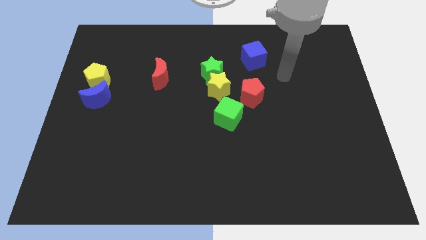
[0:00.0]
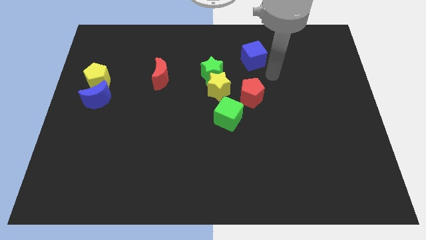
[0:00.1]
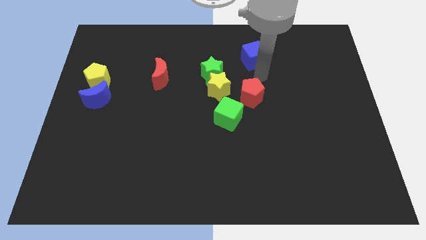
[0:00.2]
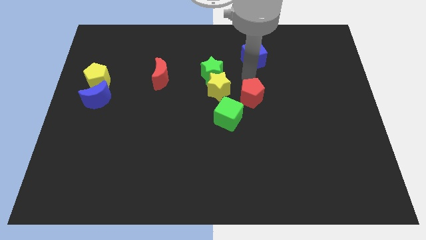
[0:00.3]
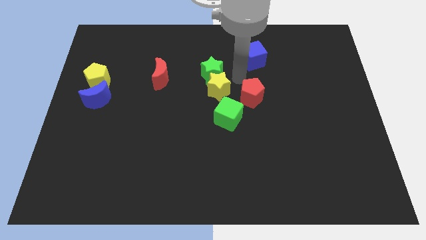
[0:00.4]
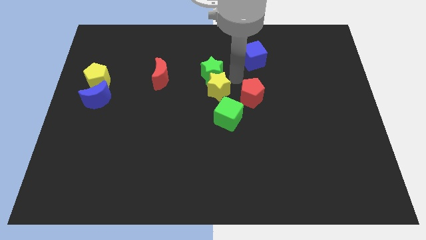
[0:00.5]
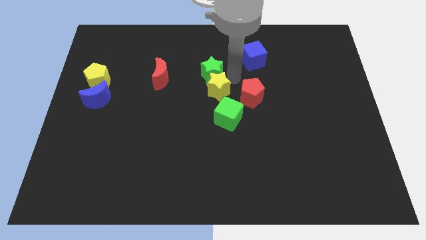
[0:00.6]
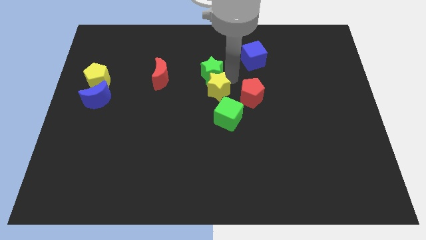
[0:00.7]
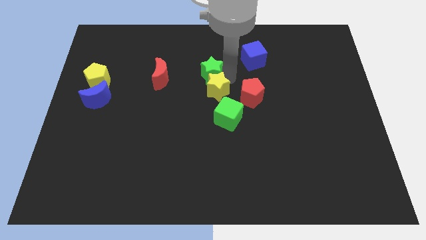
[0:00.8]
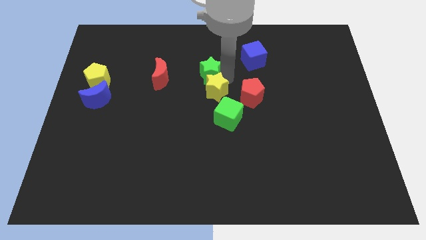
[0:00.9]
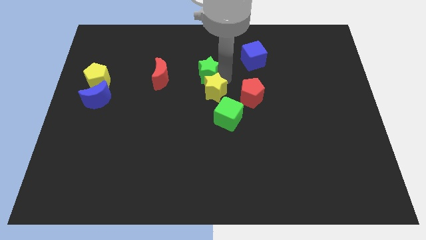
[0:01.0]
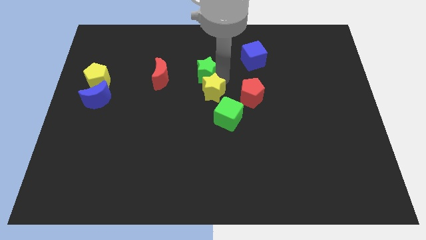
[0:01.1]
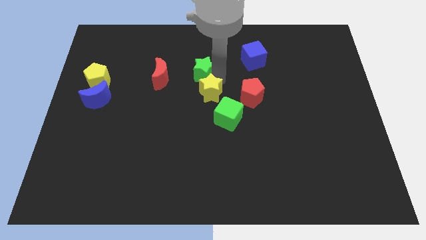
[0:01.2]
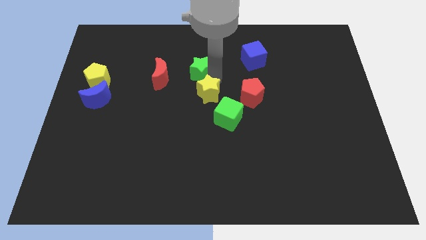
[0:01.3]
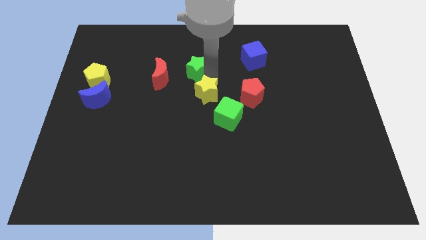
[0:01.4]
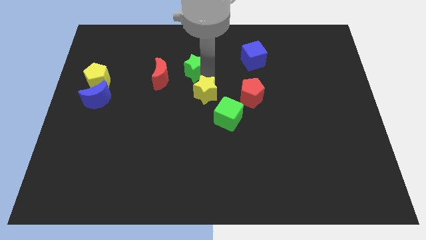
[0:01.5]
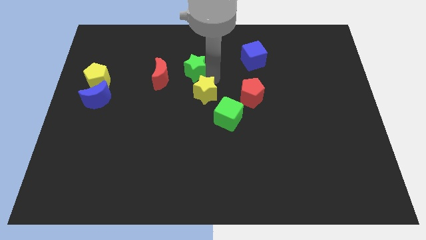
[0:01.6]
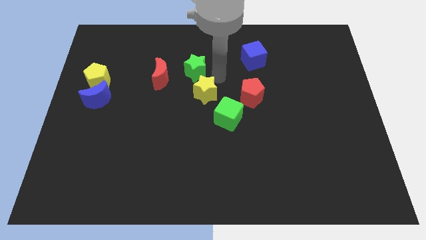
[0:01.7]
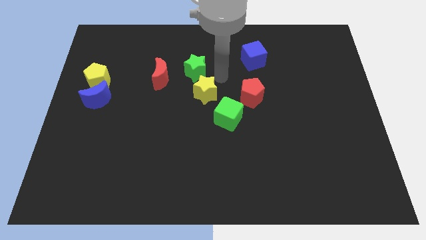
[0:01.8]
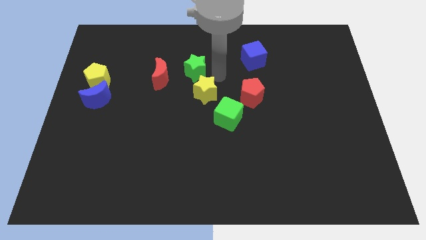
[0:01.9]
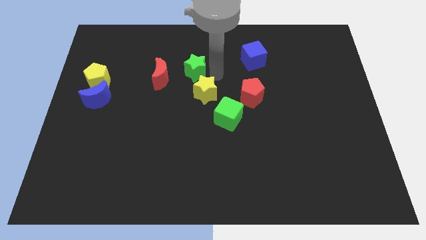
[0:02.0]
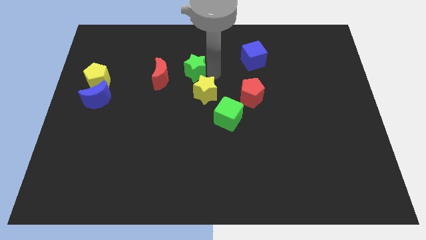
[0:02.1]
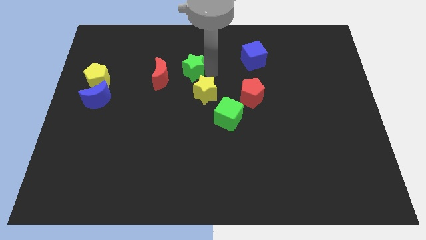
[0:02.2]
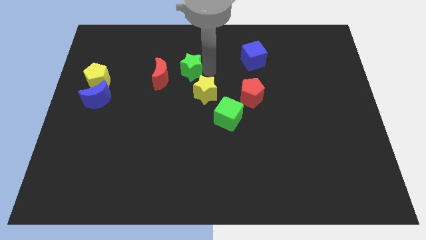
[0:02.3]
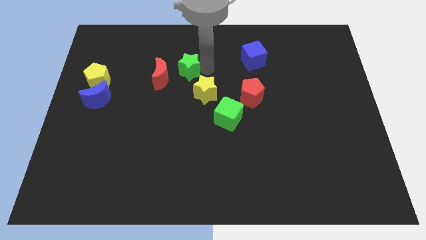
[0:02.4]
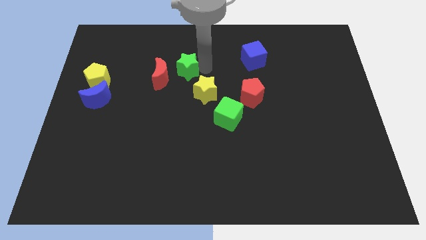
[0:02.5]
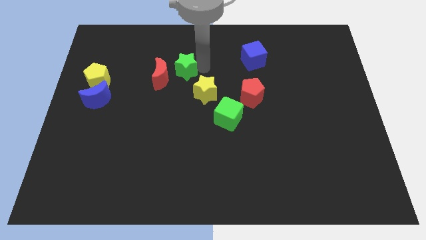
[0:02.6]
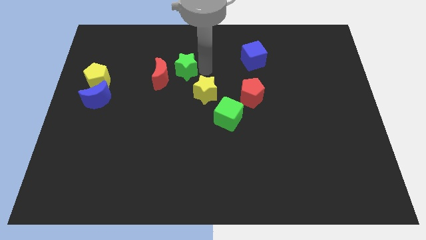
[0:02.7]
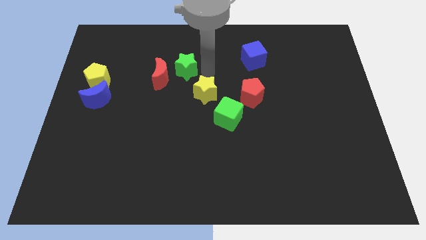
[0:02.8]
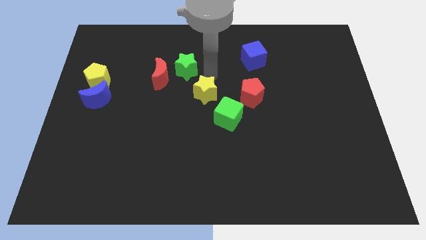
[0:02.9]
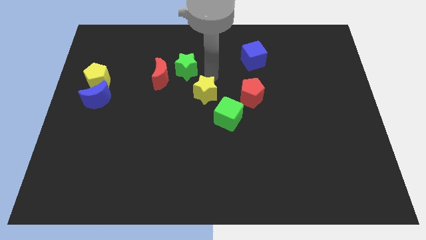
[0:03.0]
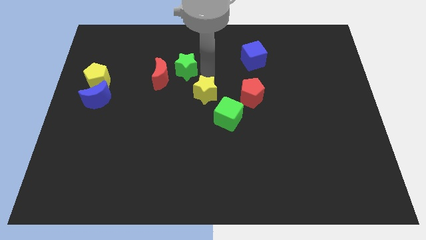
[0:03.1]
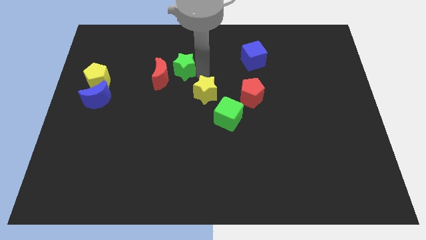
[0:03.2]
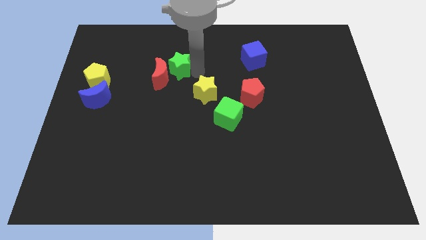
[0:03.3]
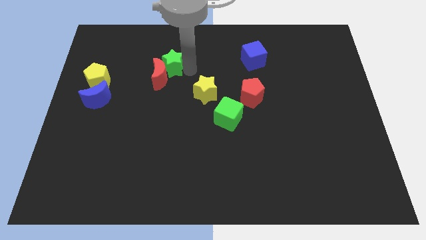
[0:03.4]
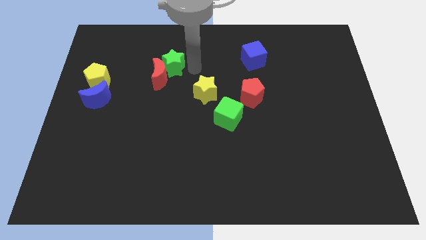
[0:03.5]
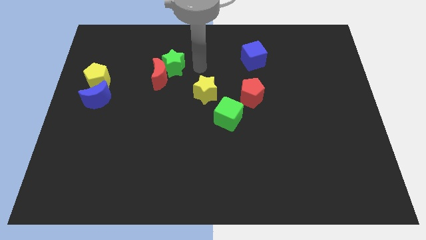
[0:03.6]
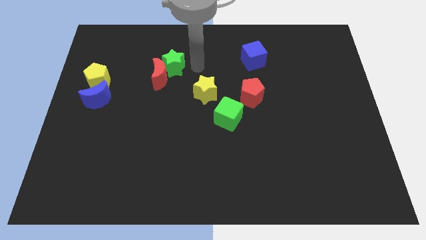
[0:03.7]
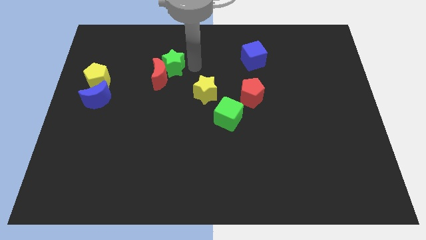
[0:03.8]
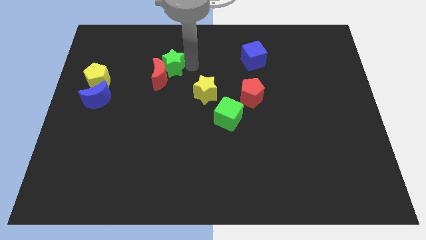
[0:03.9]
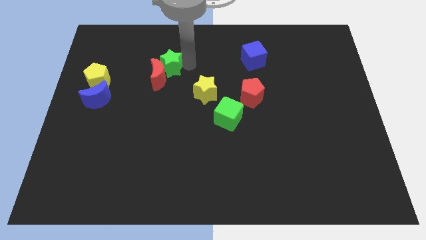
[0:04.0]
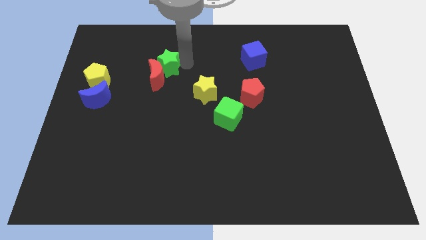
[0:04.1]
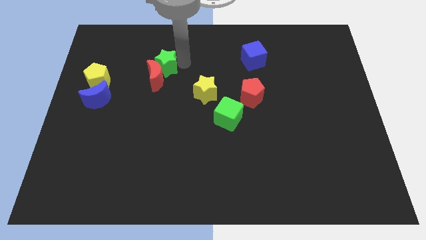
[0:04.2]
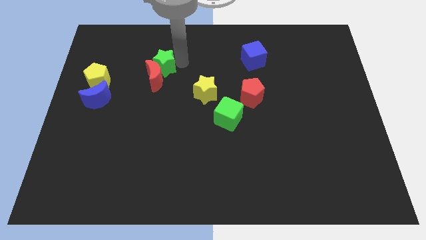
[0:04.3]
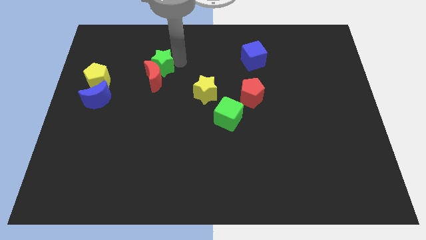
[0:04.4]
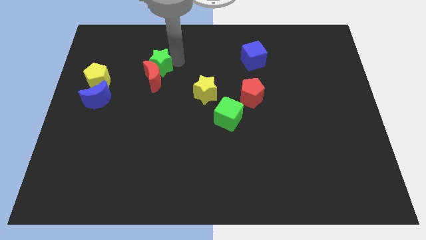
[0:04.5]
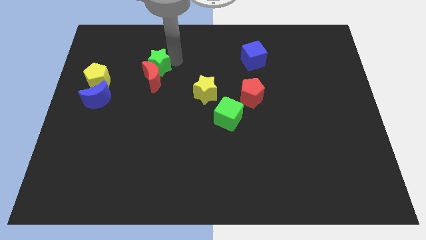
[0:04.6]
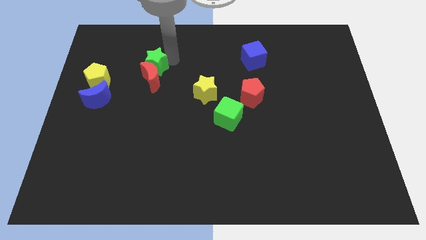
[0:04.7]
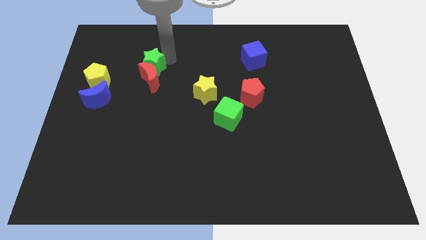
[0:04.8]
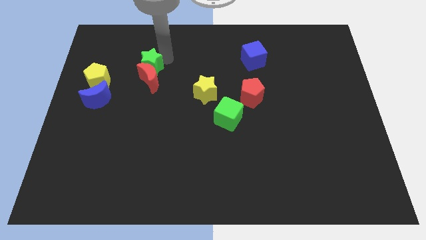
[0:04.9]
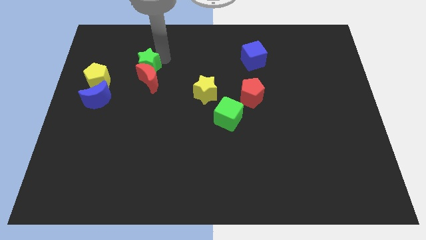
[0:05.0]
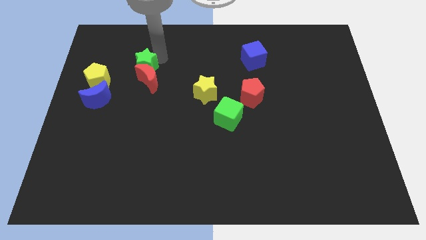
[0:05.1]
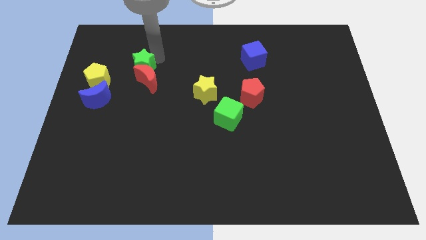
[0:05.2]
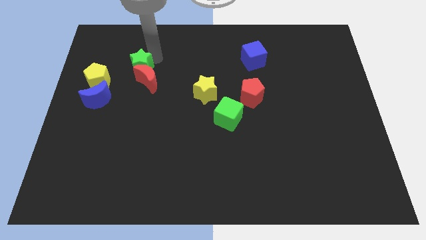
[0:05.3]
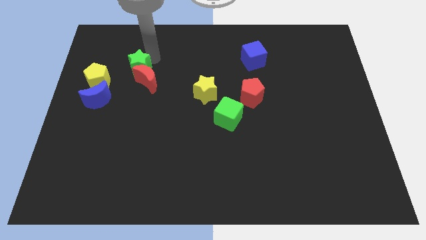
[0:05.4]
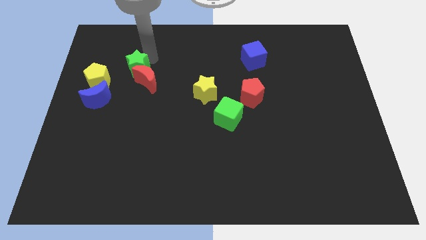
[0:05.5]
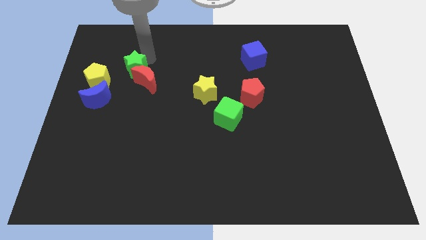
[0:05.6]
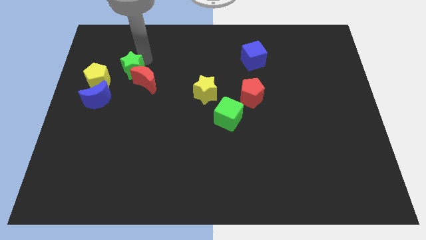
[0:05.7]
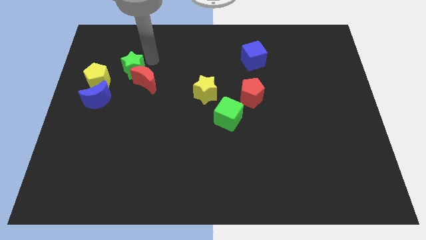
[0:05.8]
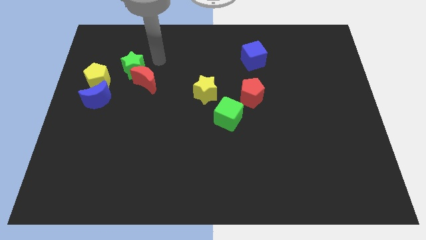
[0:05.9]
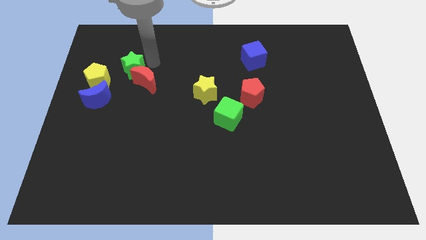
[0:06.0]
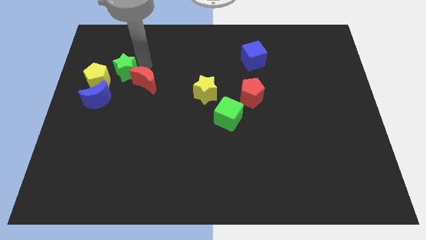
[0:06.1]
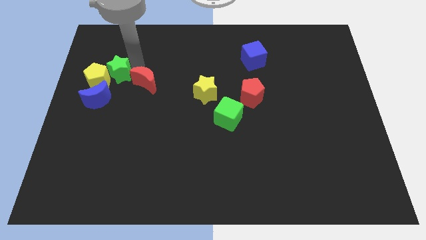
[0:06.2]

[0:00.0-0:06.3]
push the green star towards the yellow pentagon
